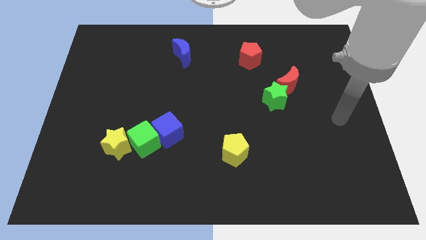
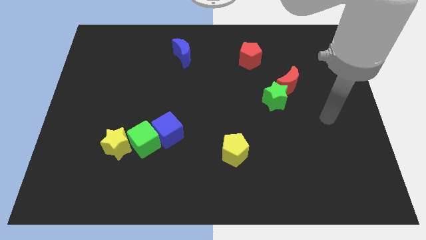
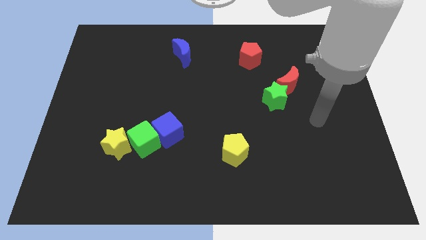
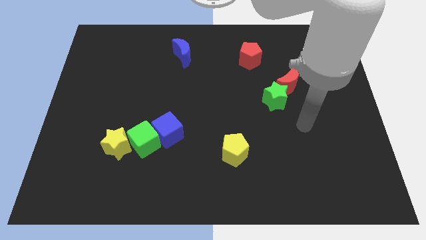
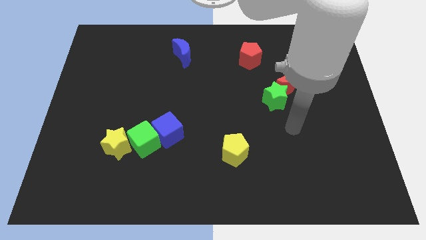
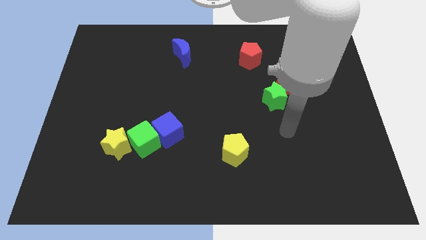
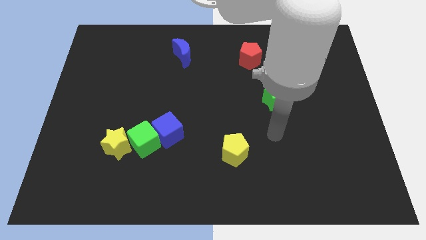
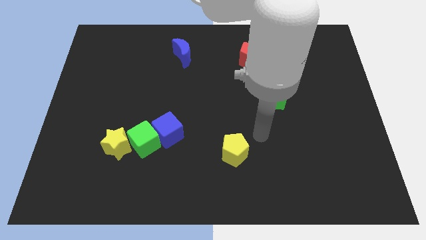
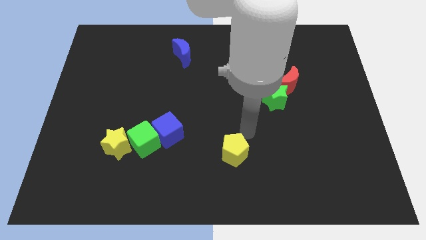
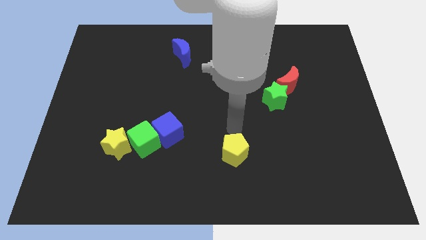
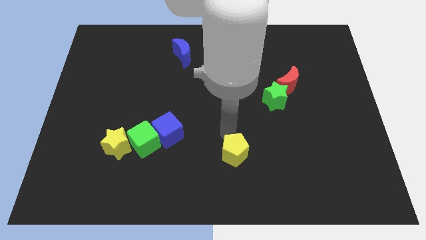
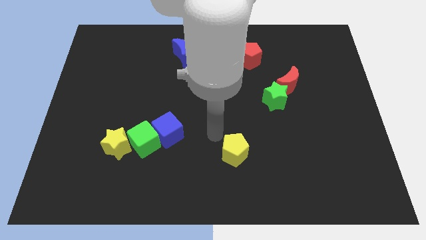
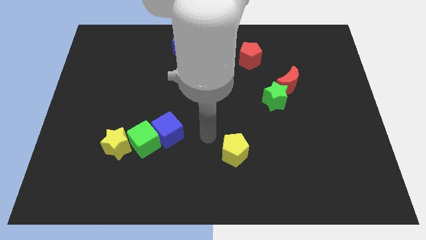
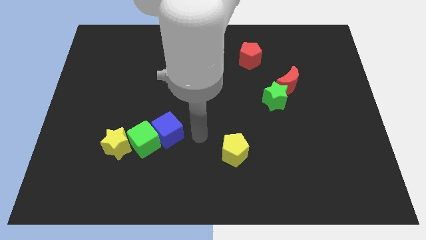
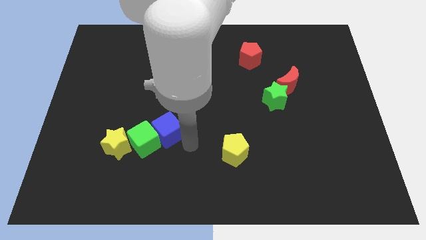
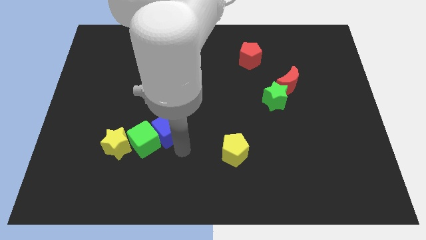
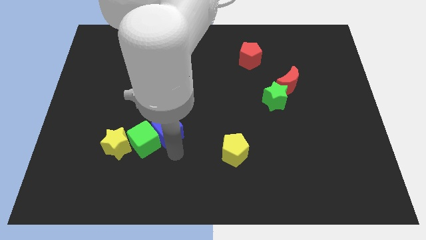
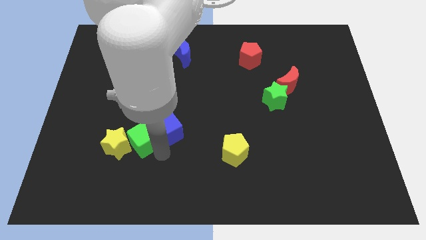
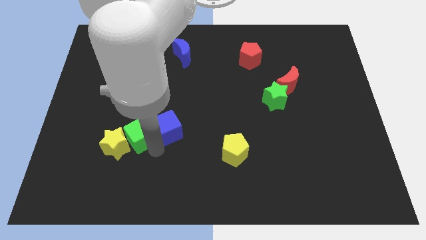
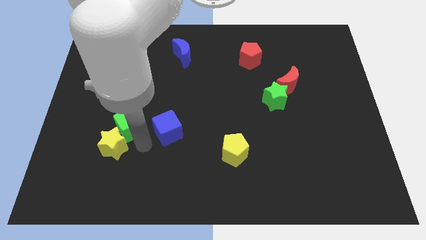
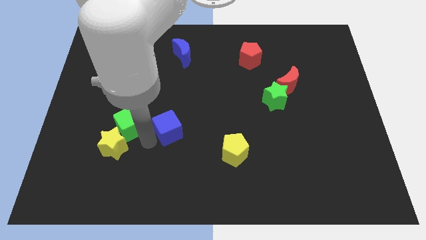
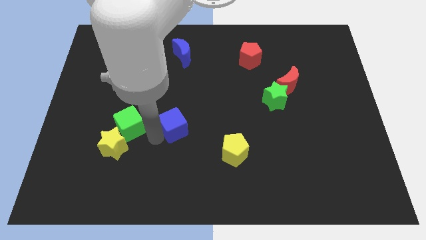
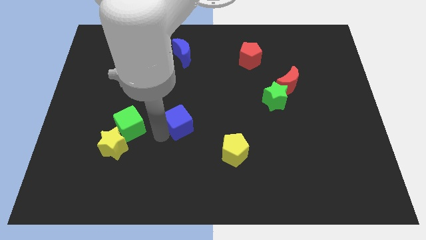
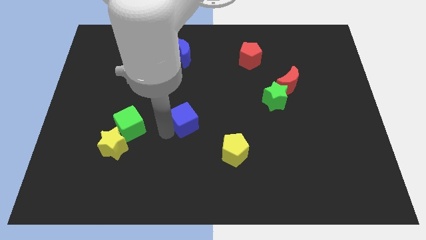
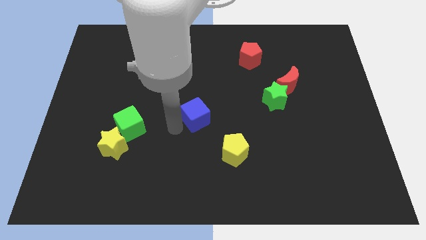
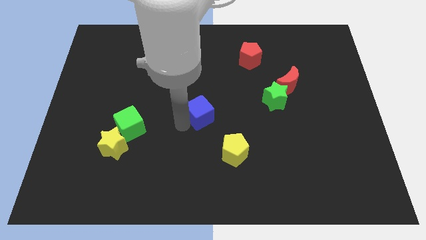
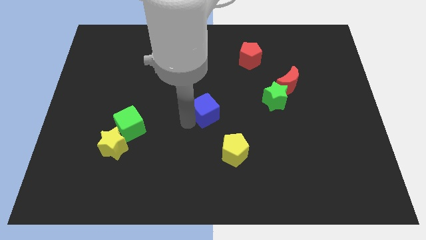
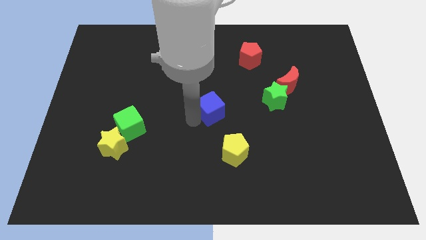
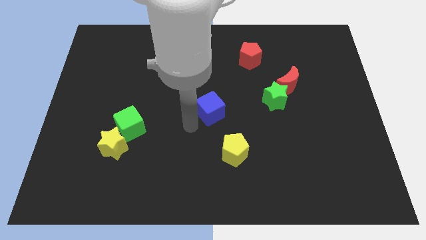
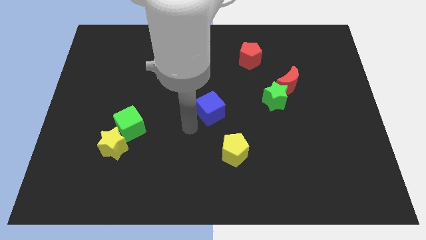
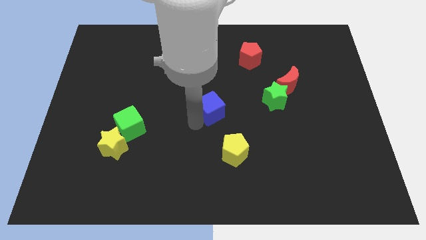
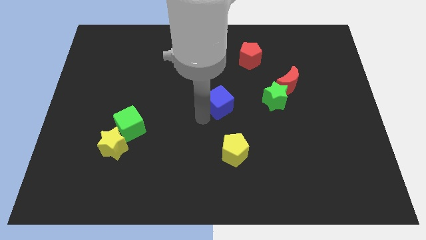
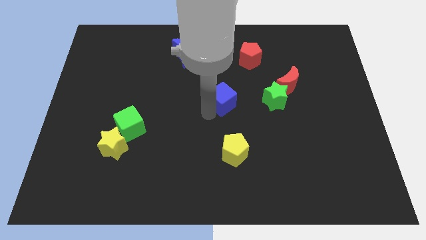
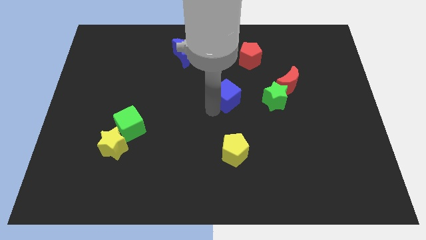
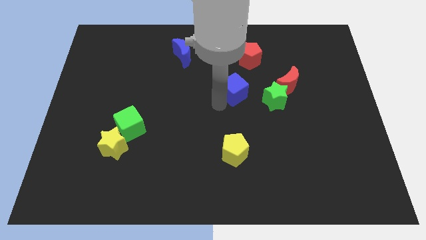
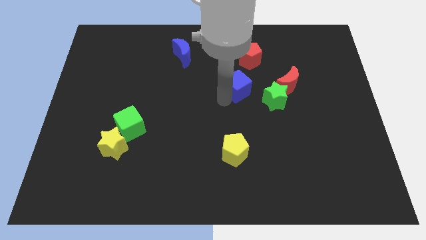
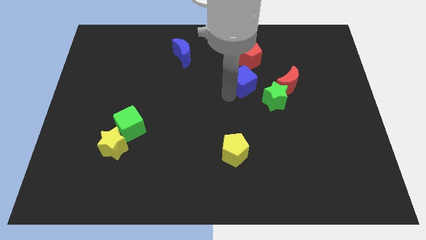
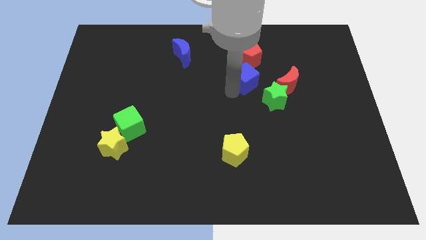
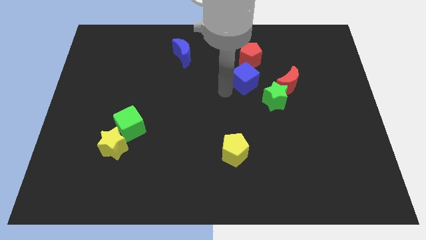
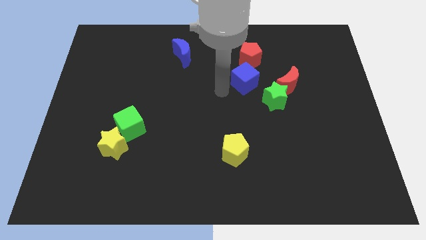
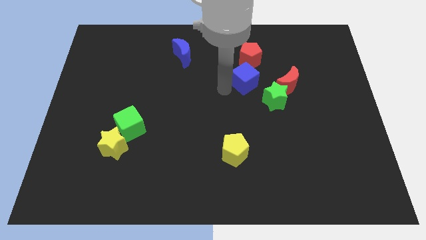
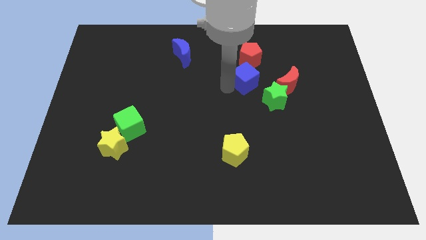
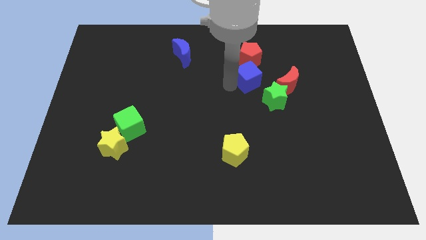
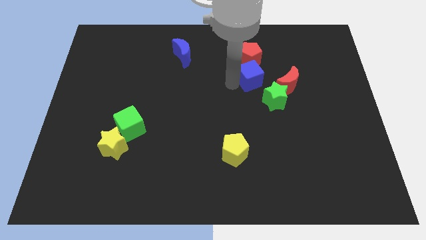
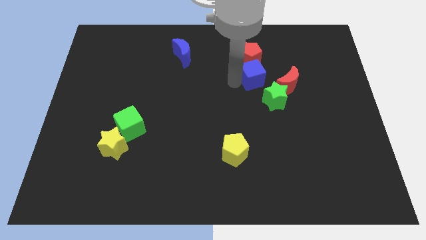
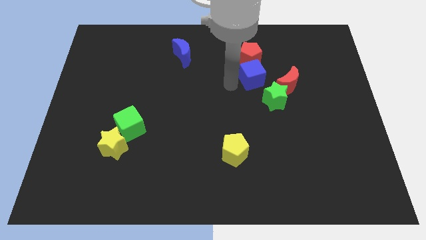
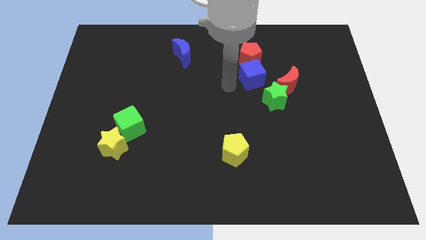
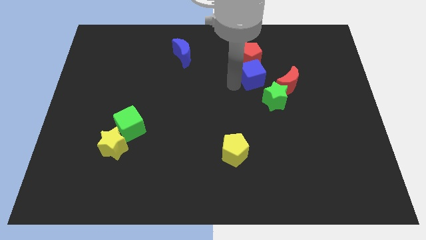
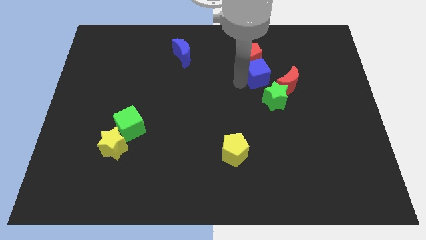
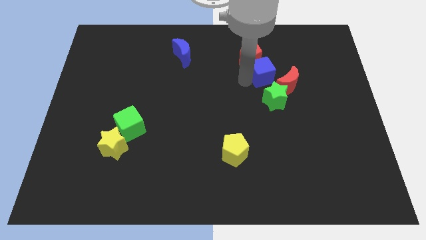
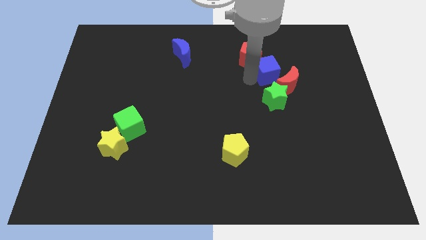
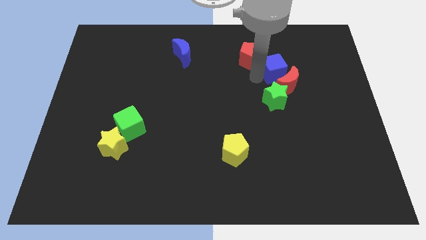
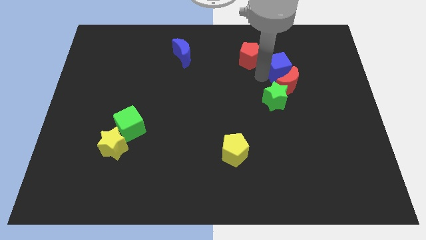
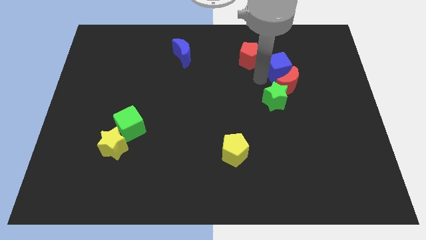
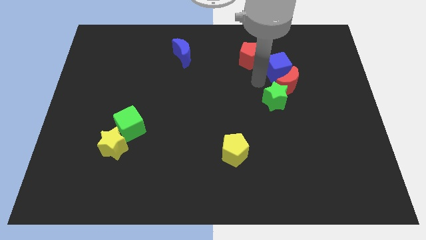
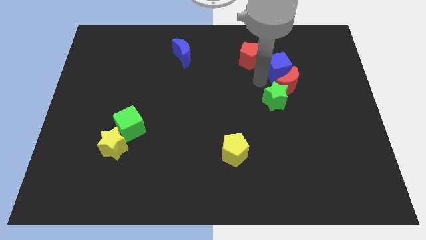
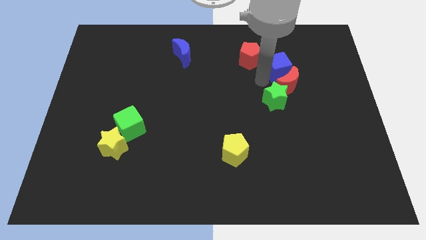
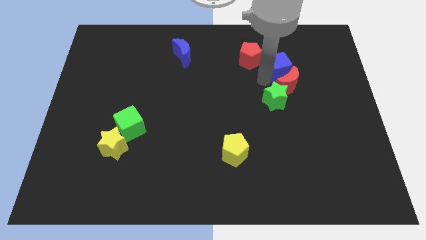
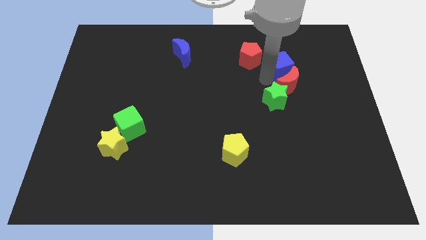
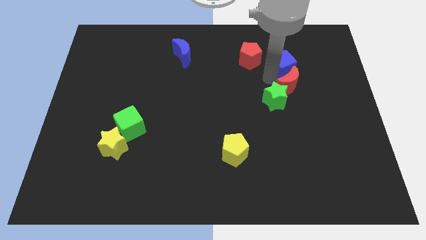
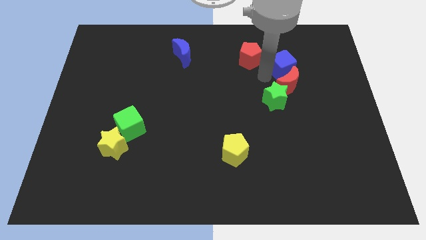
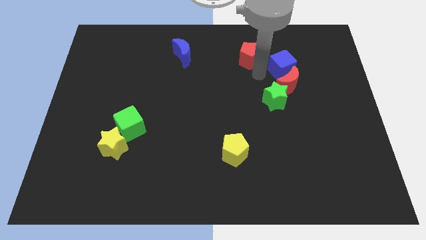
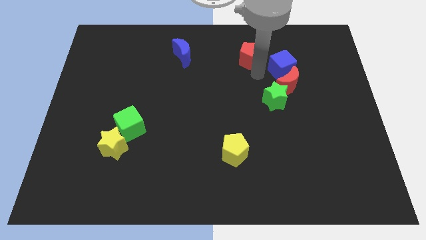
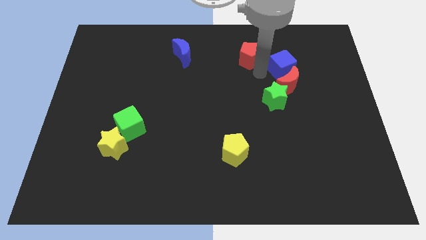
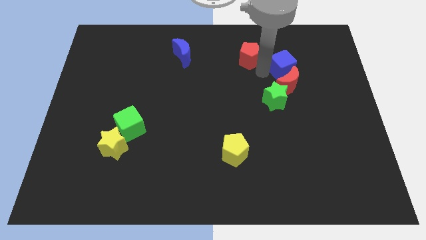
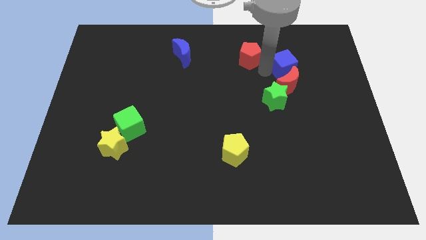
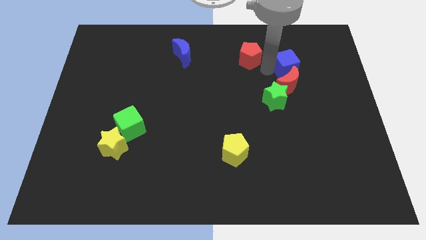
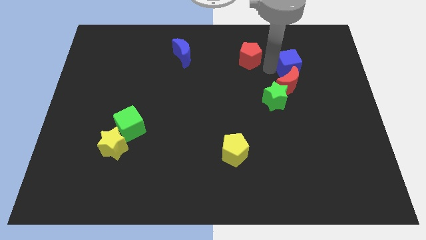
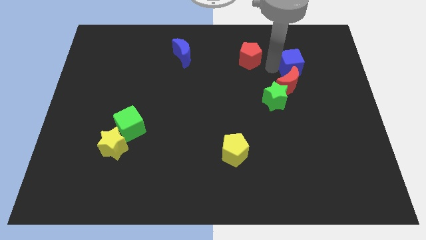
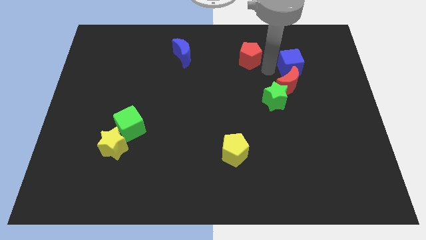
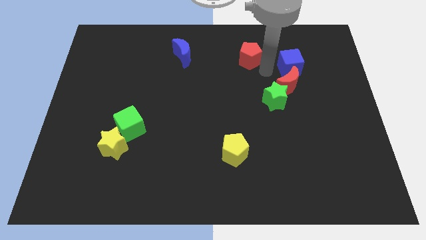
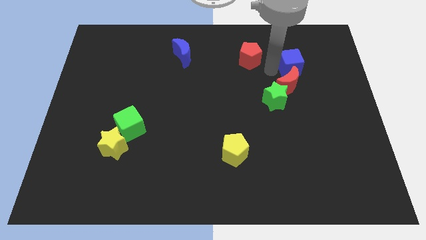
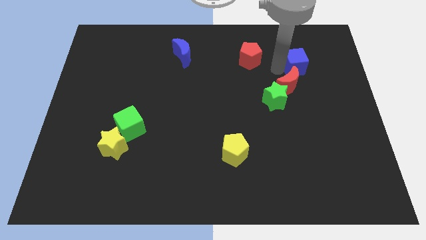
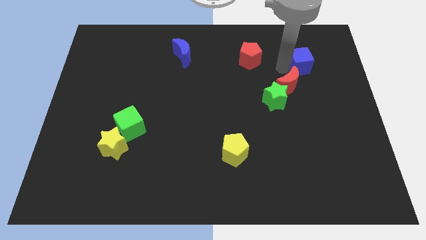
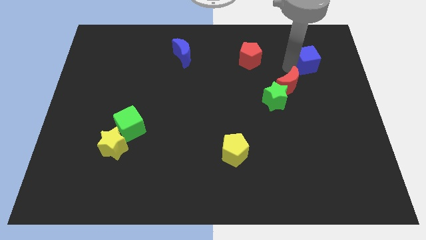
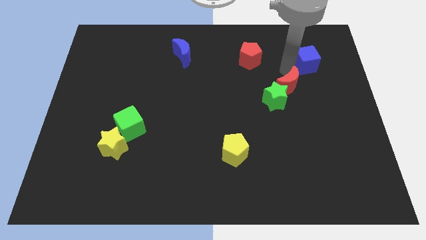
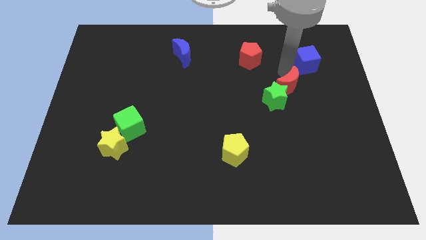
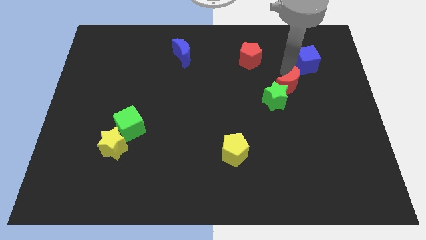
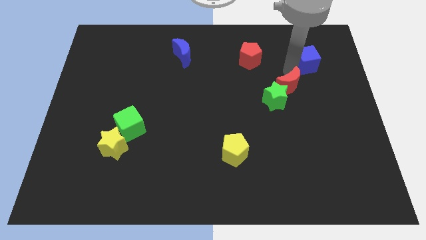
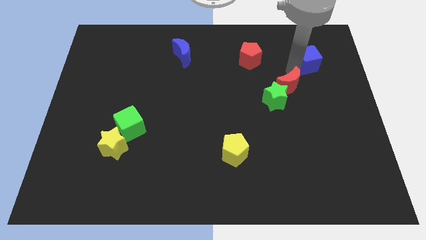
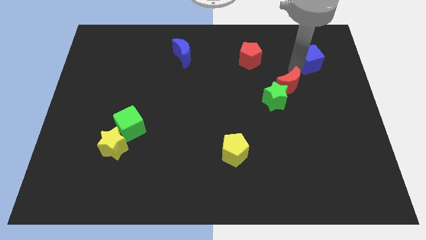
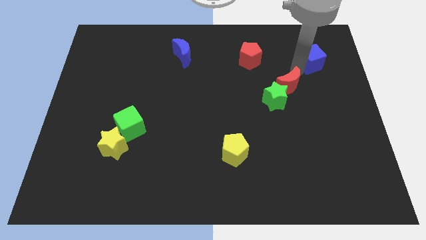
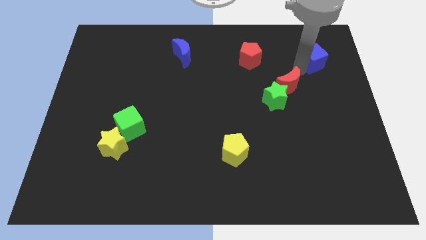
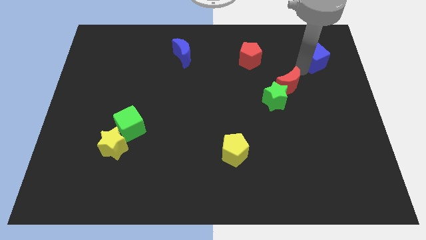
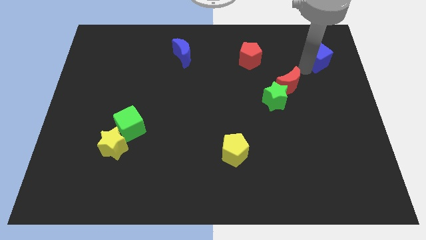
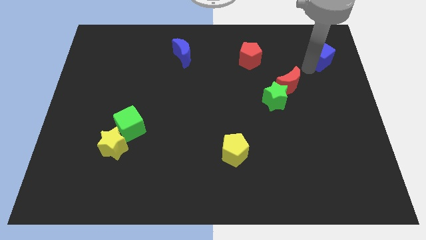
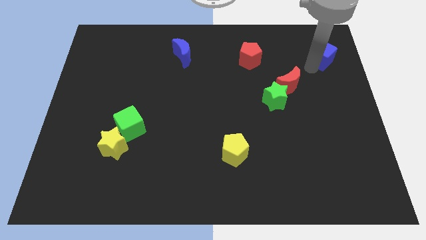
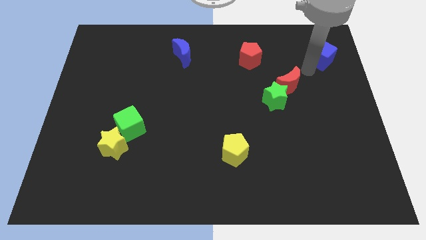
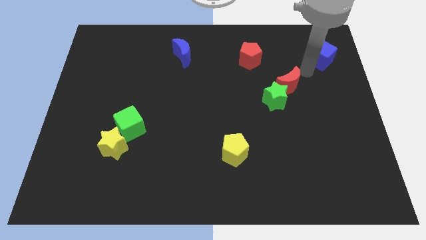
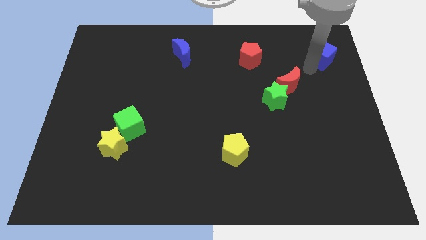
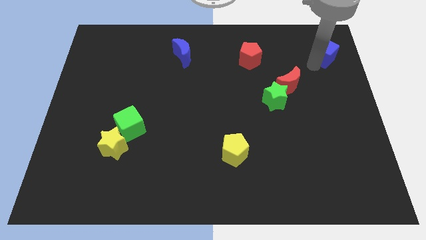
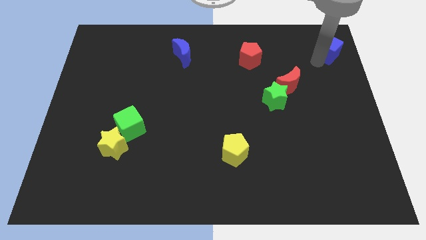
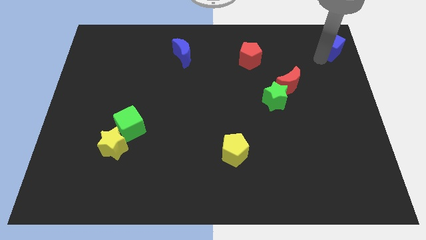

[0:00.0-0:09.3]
move the blue cube to the top right
